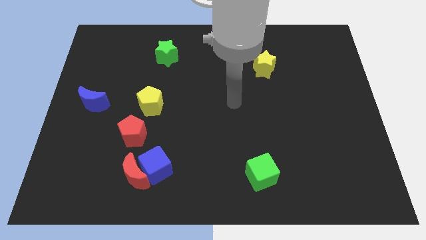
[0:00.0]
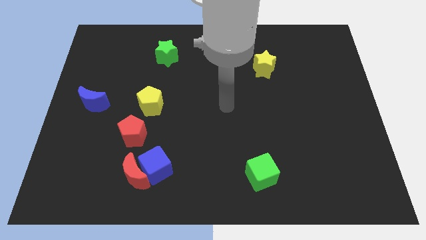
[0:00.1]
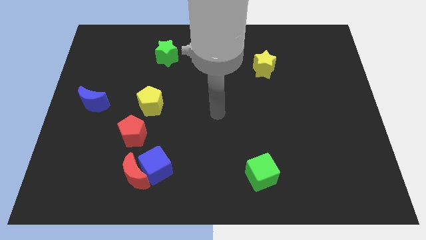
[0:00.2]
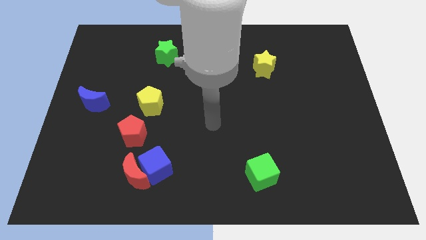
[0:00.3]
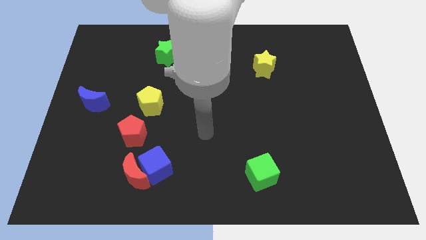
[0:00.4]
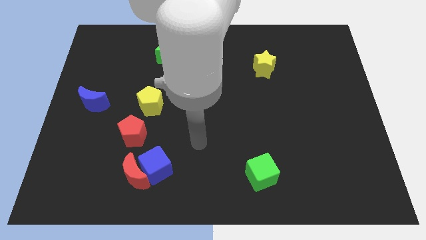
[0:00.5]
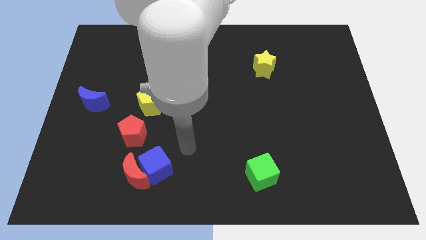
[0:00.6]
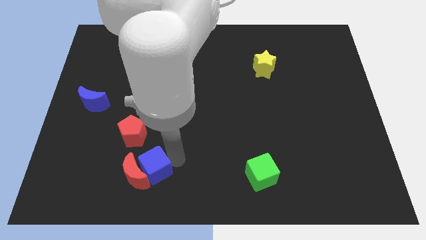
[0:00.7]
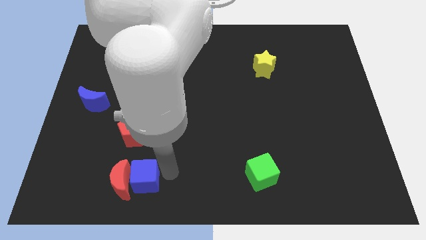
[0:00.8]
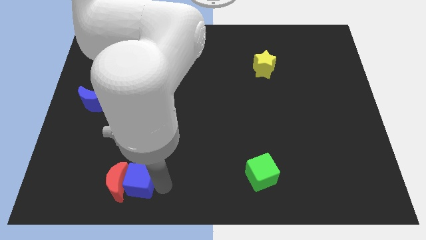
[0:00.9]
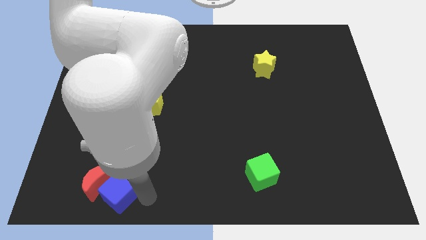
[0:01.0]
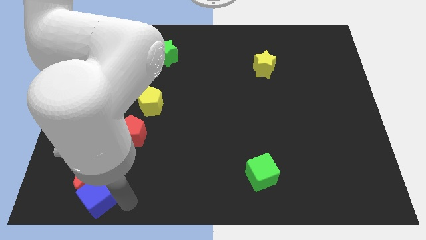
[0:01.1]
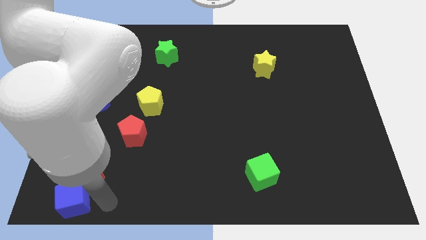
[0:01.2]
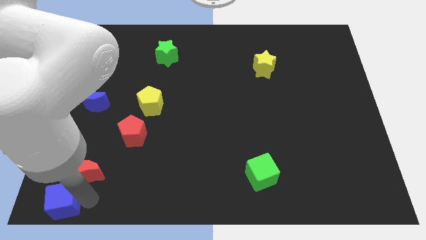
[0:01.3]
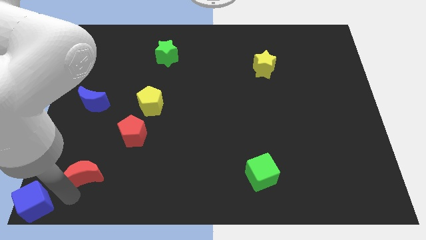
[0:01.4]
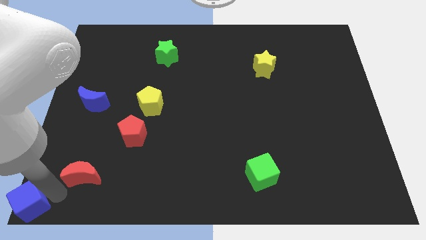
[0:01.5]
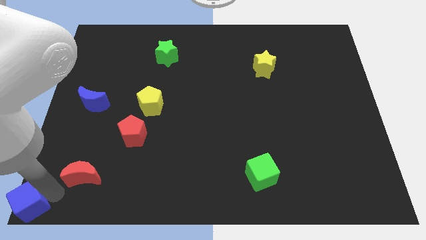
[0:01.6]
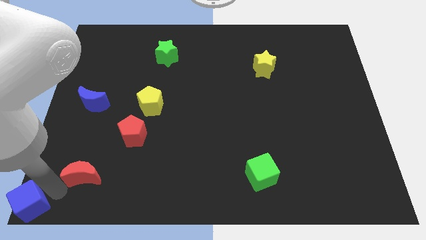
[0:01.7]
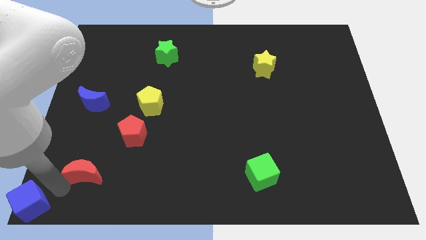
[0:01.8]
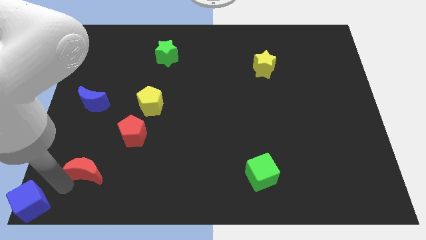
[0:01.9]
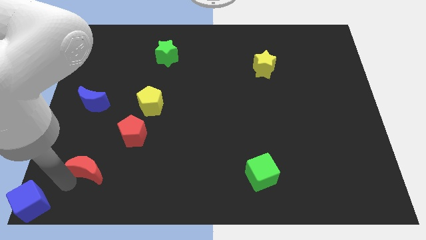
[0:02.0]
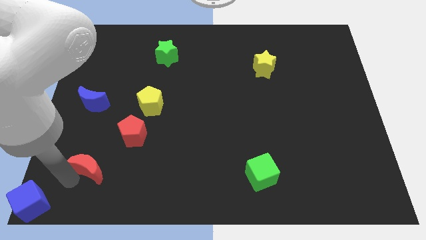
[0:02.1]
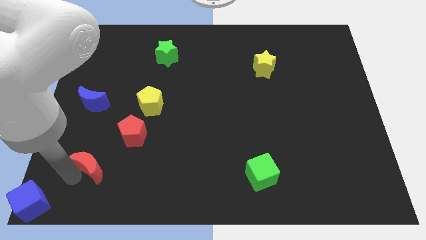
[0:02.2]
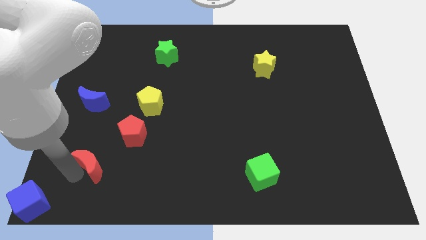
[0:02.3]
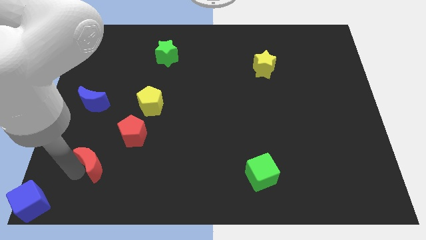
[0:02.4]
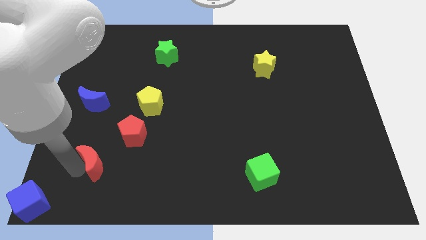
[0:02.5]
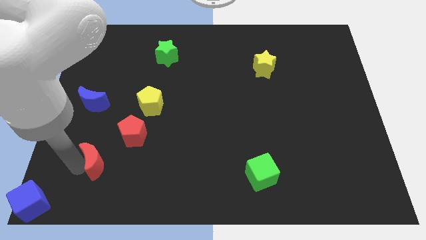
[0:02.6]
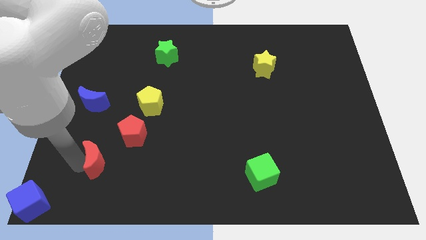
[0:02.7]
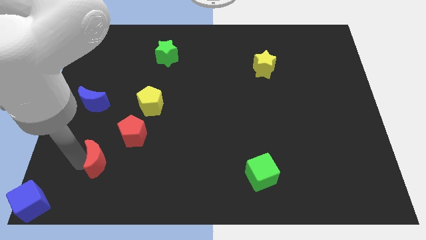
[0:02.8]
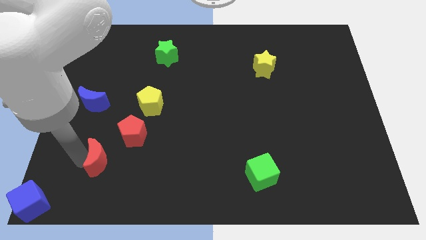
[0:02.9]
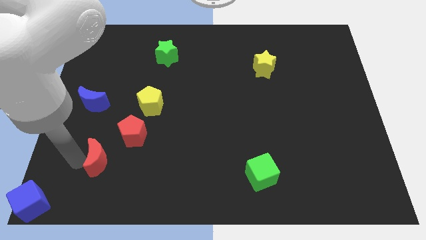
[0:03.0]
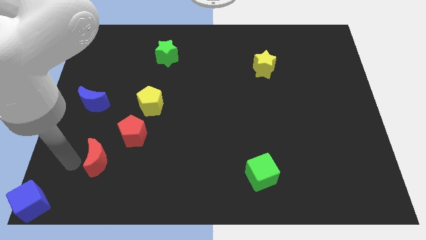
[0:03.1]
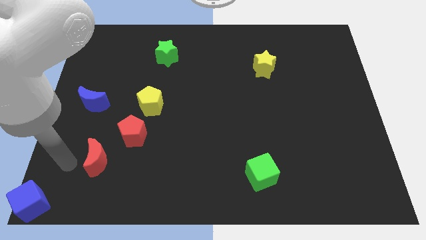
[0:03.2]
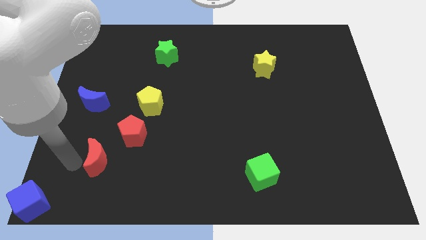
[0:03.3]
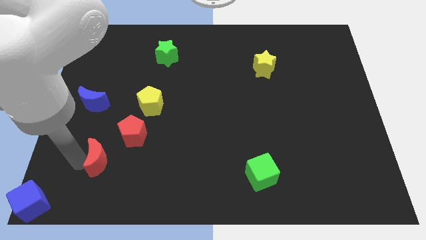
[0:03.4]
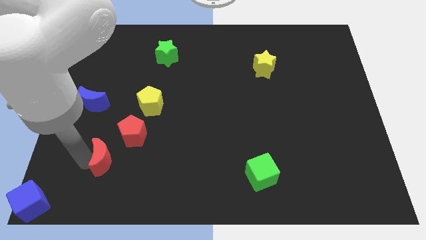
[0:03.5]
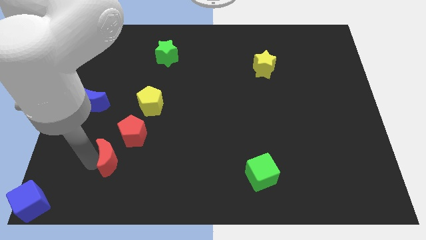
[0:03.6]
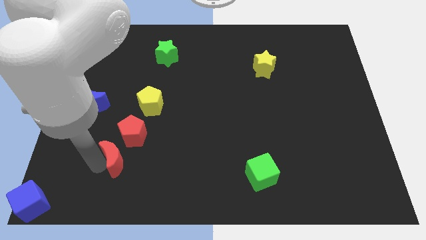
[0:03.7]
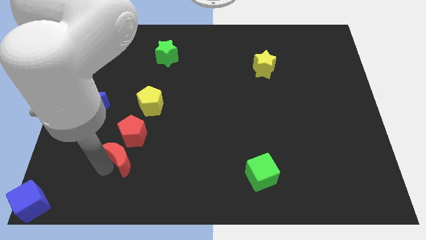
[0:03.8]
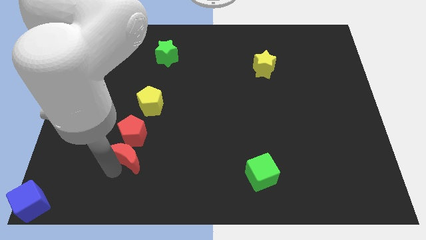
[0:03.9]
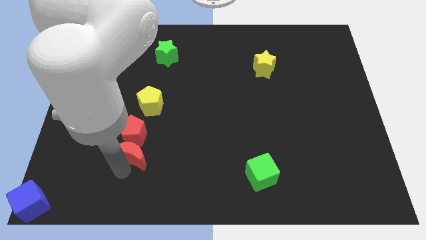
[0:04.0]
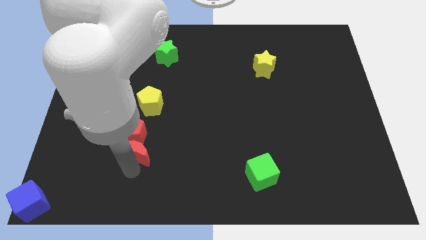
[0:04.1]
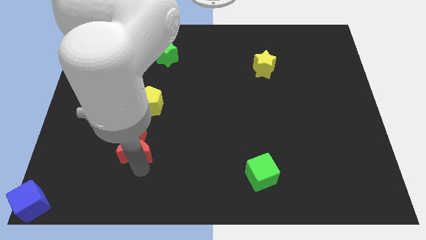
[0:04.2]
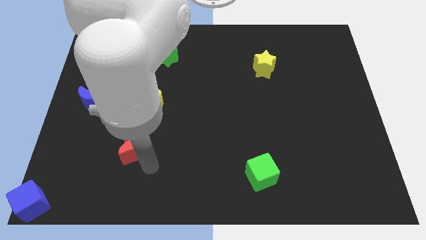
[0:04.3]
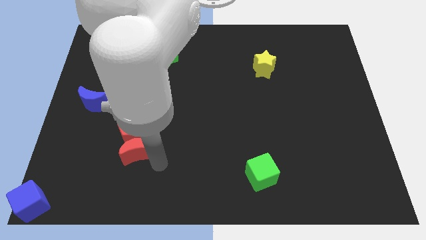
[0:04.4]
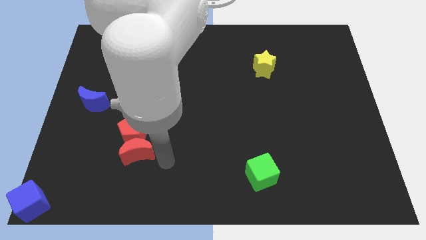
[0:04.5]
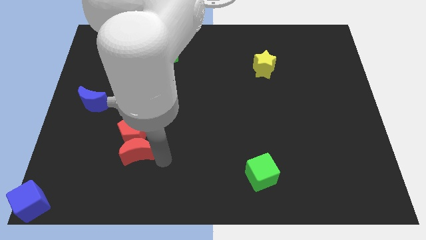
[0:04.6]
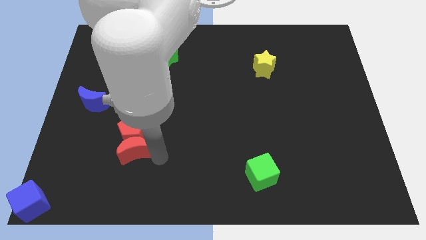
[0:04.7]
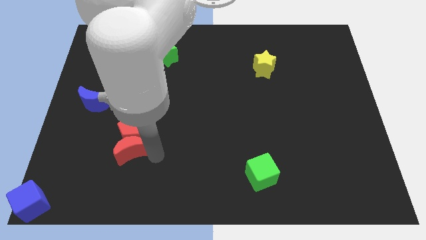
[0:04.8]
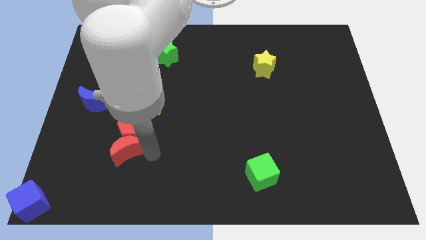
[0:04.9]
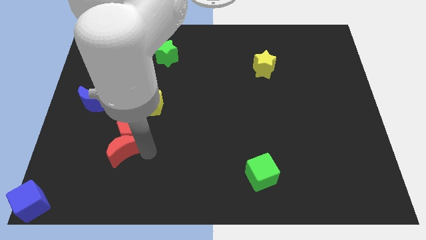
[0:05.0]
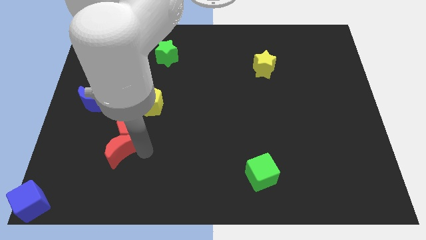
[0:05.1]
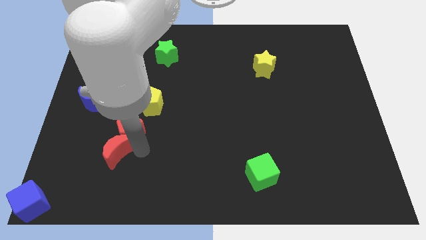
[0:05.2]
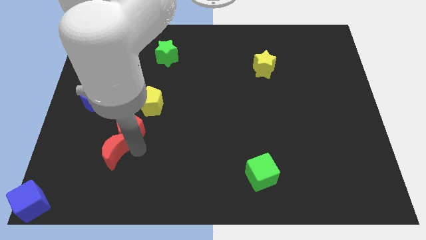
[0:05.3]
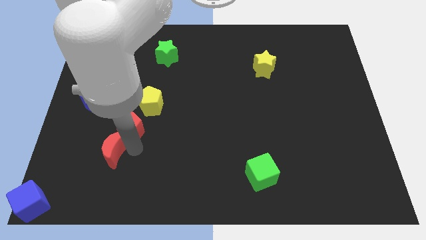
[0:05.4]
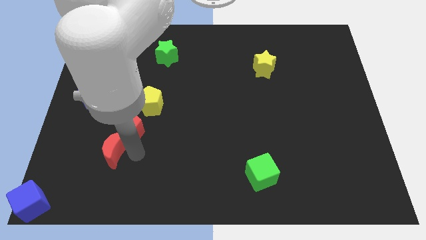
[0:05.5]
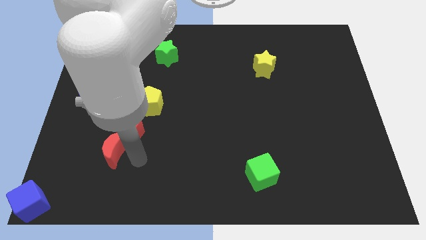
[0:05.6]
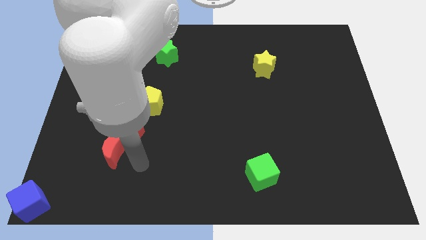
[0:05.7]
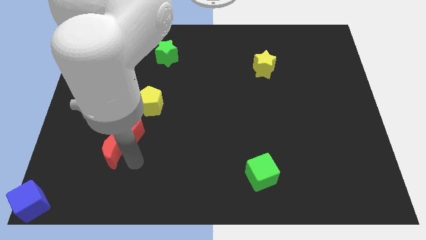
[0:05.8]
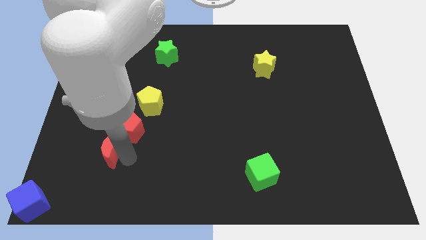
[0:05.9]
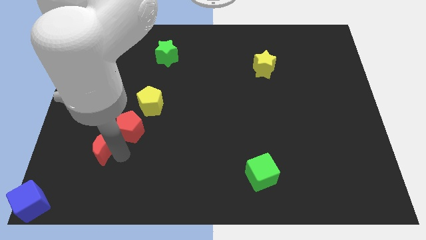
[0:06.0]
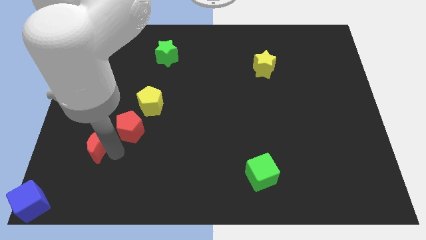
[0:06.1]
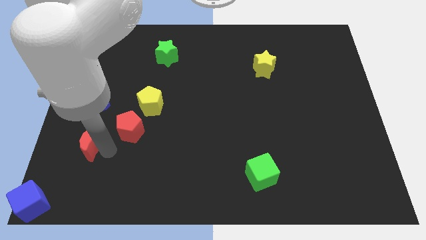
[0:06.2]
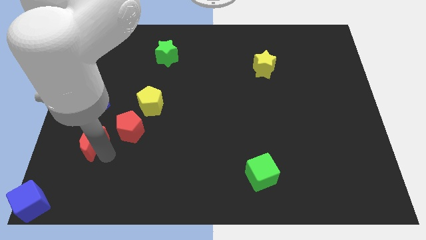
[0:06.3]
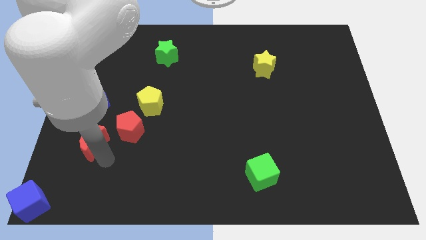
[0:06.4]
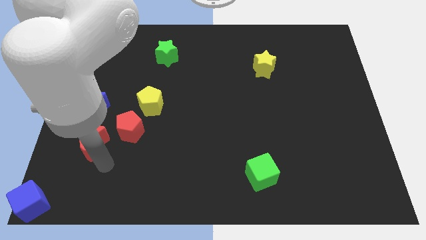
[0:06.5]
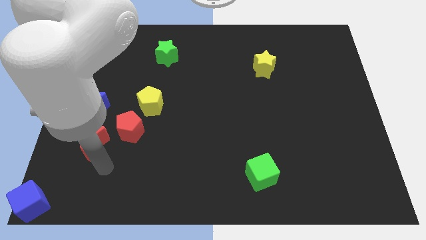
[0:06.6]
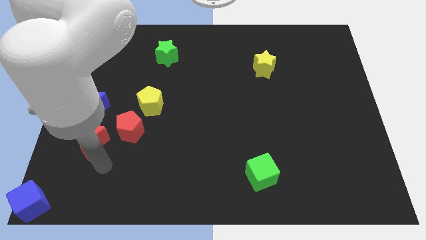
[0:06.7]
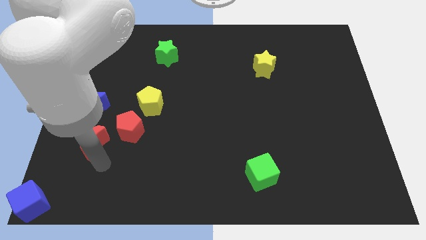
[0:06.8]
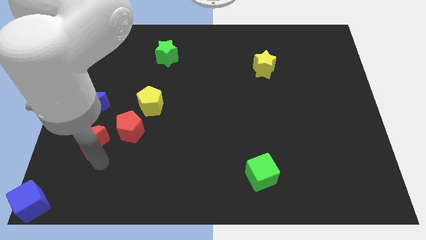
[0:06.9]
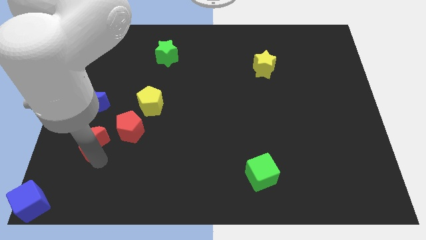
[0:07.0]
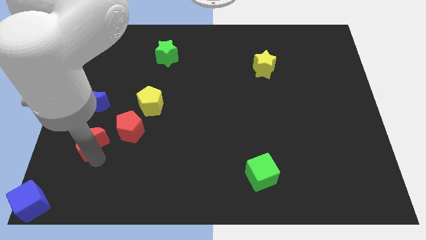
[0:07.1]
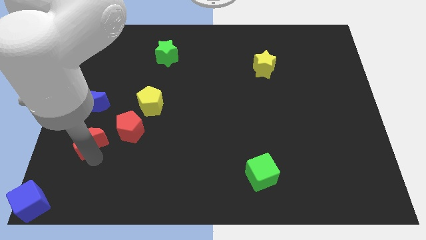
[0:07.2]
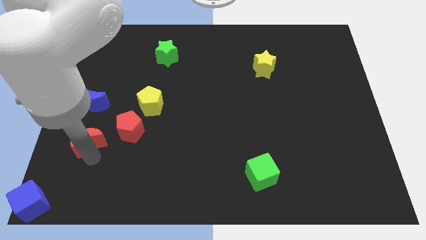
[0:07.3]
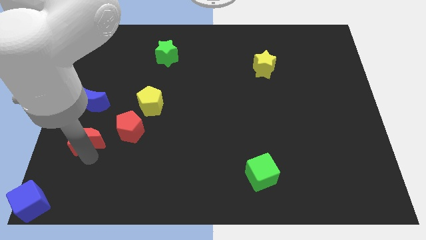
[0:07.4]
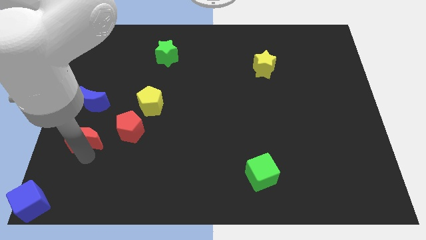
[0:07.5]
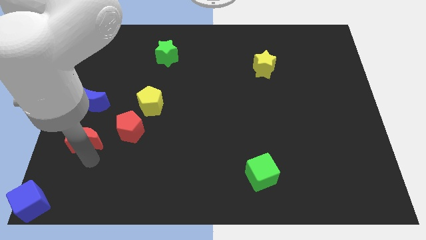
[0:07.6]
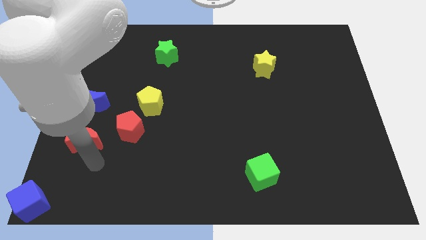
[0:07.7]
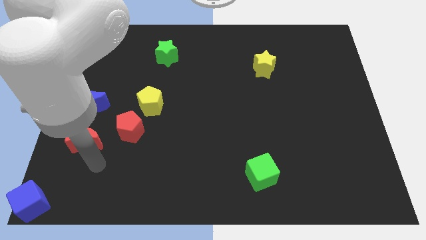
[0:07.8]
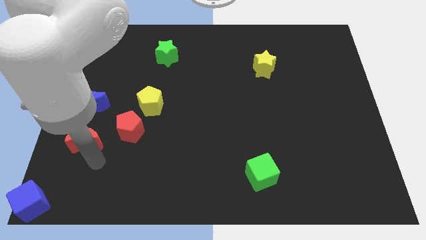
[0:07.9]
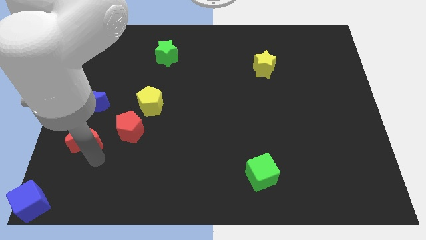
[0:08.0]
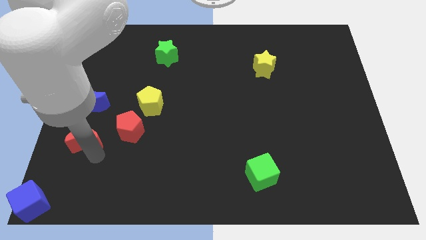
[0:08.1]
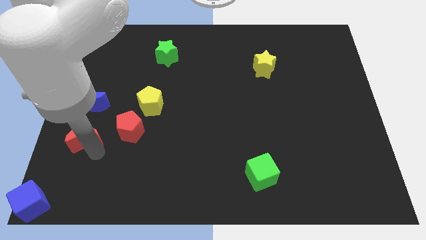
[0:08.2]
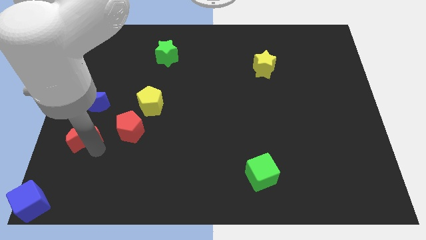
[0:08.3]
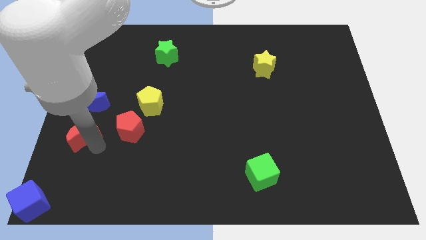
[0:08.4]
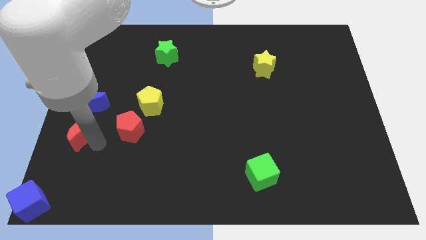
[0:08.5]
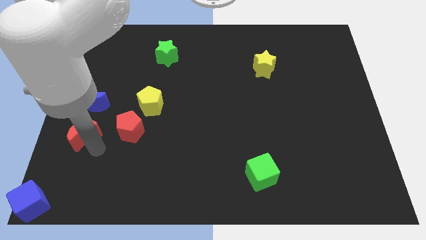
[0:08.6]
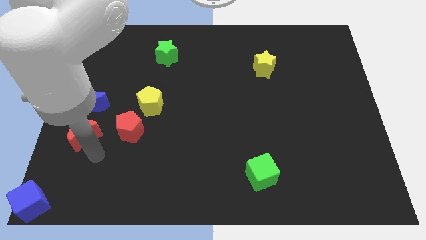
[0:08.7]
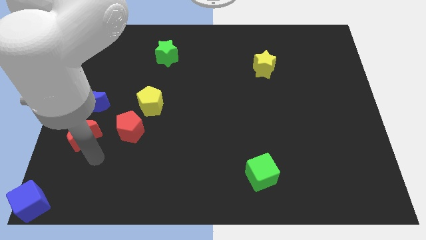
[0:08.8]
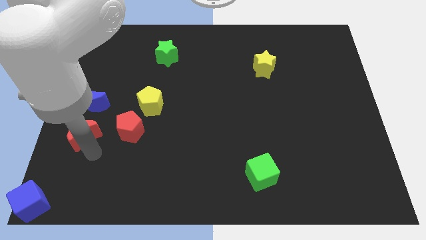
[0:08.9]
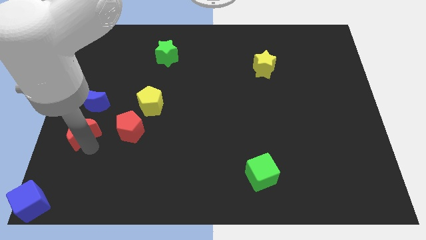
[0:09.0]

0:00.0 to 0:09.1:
move the red moon to the left side
